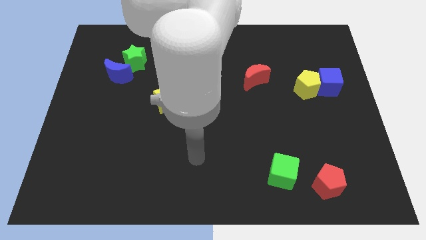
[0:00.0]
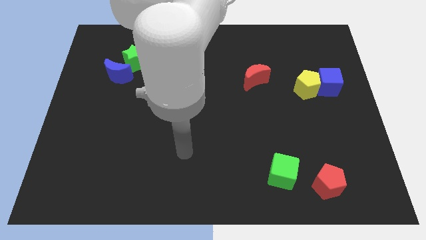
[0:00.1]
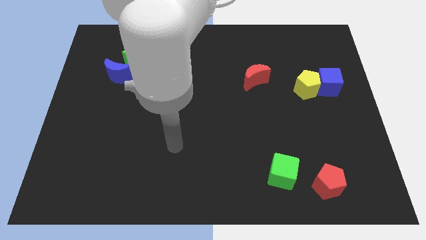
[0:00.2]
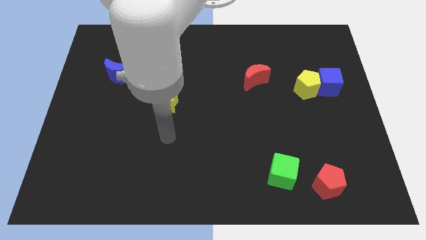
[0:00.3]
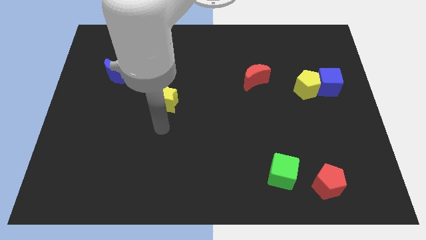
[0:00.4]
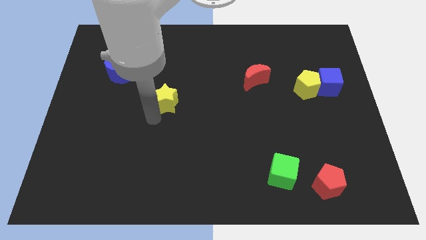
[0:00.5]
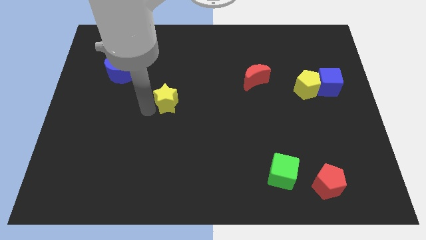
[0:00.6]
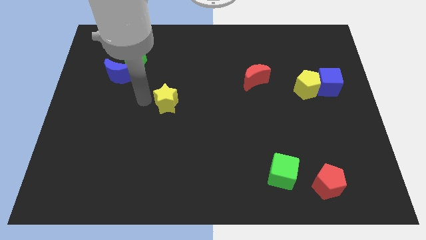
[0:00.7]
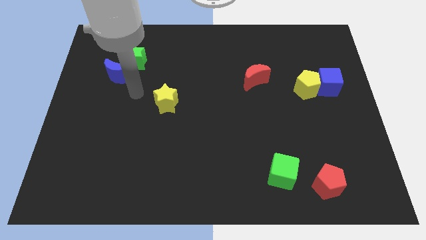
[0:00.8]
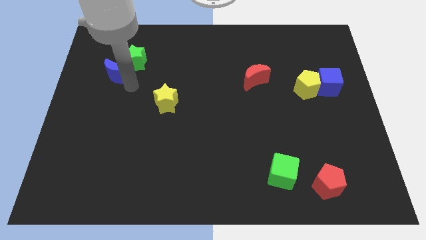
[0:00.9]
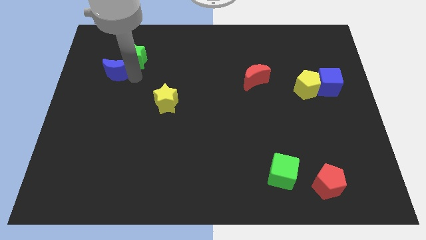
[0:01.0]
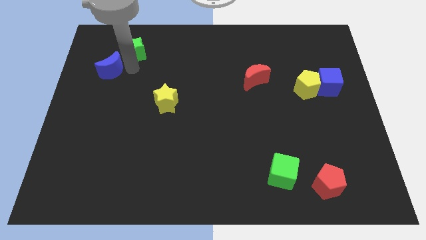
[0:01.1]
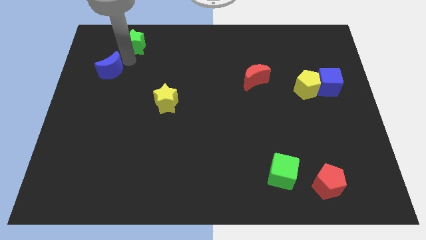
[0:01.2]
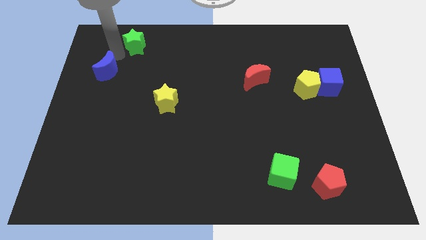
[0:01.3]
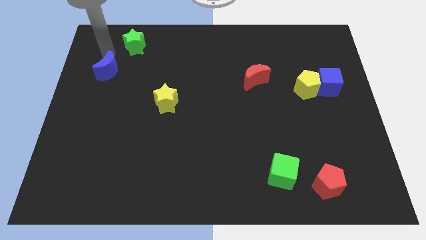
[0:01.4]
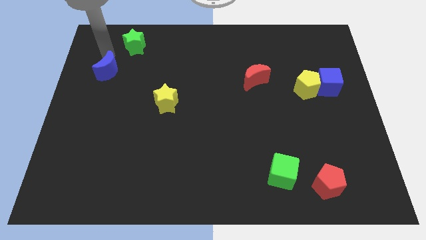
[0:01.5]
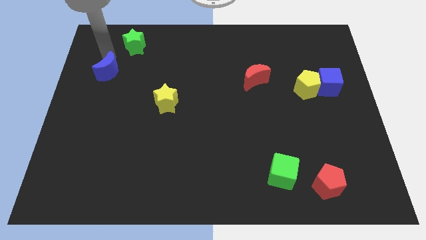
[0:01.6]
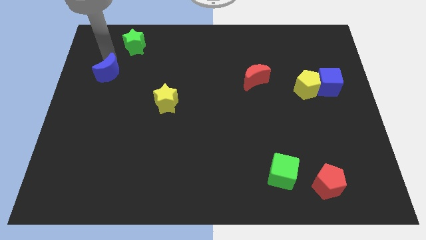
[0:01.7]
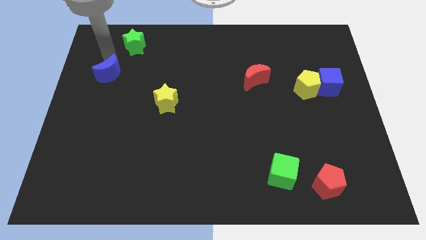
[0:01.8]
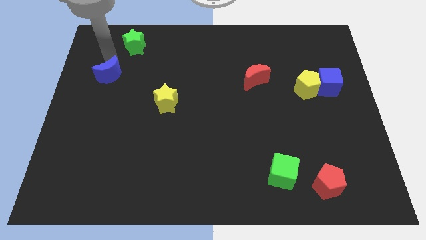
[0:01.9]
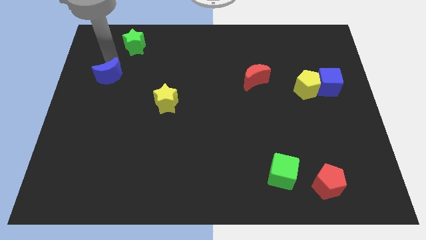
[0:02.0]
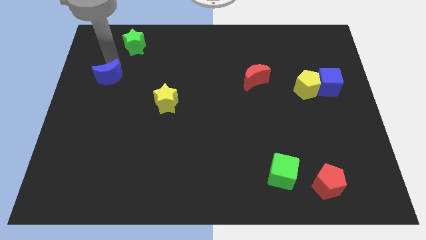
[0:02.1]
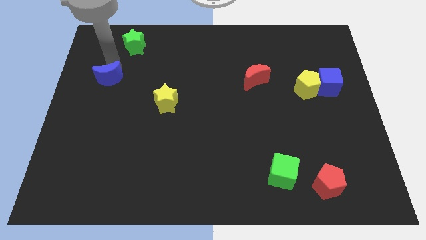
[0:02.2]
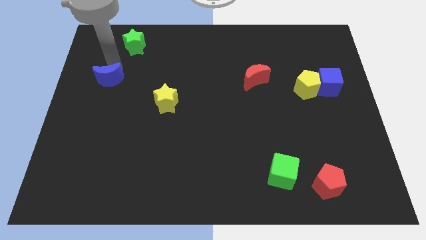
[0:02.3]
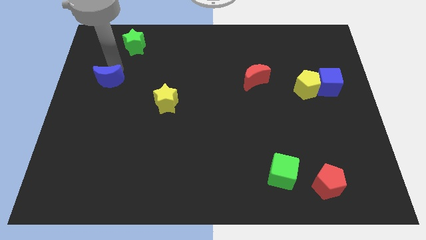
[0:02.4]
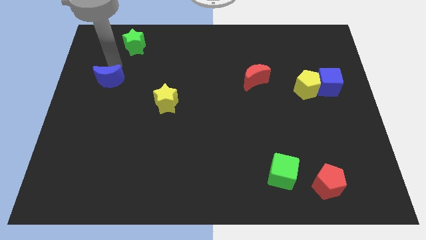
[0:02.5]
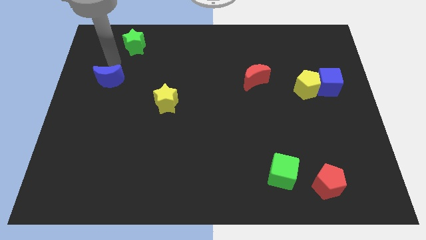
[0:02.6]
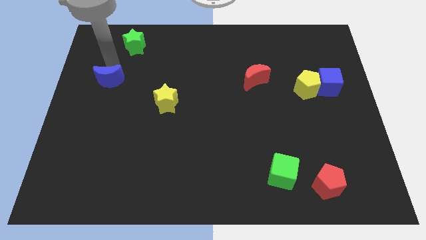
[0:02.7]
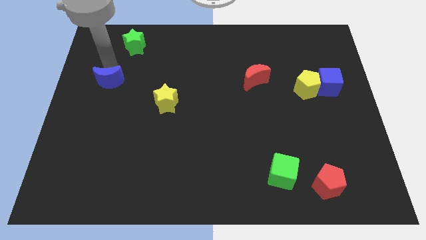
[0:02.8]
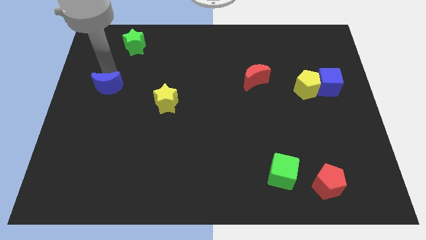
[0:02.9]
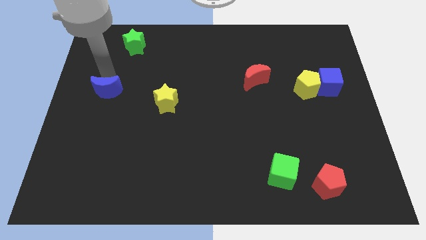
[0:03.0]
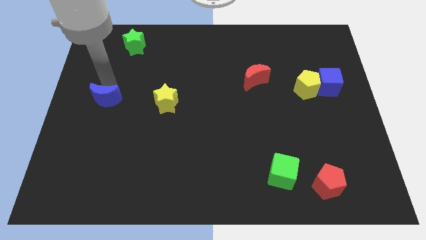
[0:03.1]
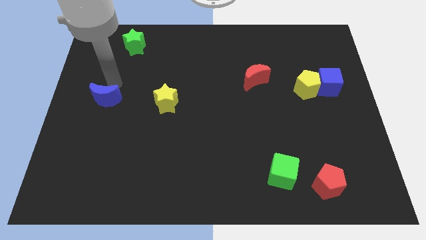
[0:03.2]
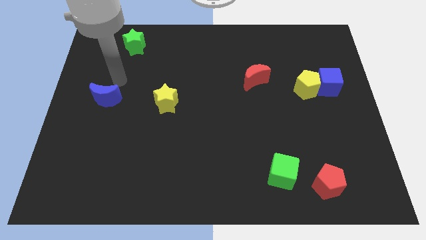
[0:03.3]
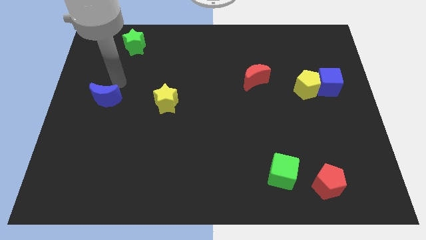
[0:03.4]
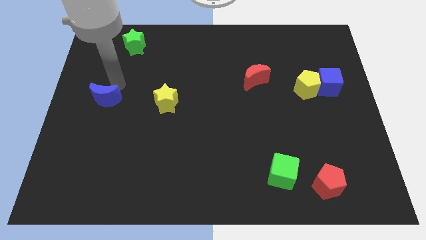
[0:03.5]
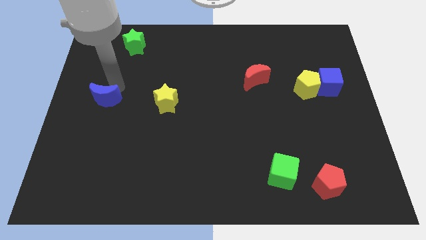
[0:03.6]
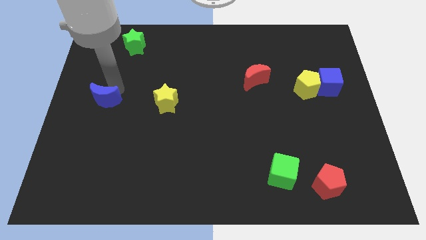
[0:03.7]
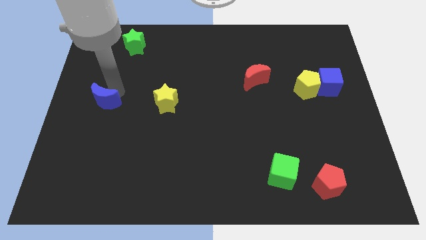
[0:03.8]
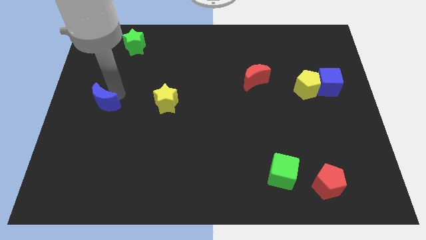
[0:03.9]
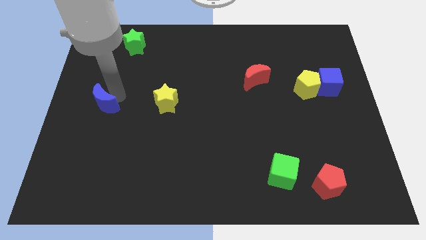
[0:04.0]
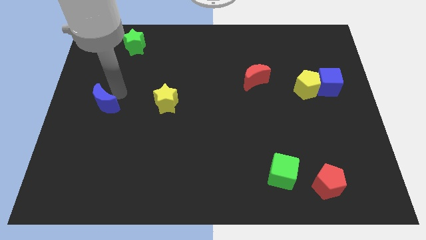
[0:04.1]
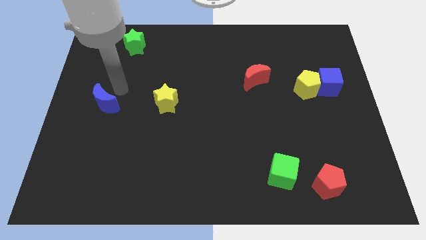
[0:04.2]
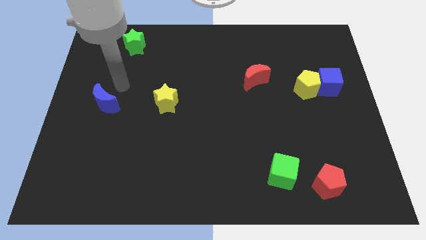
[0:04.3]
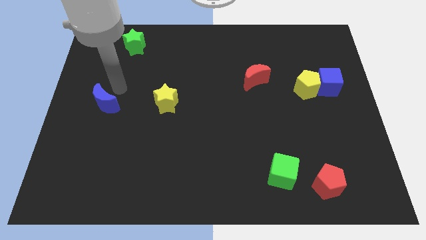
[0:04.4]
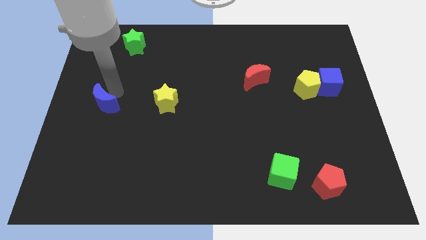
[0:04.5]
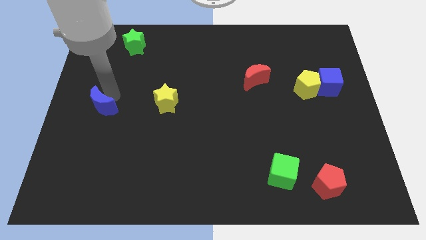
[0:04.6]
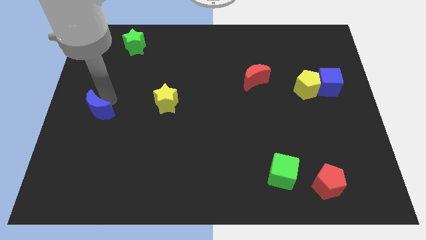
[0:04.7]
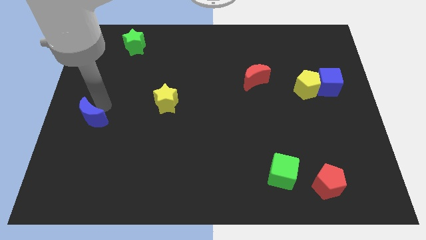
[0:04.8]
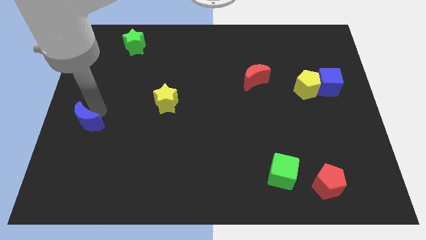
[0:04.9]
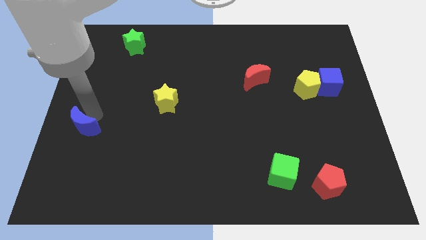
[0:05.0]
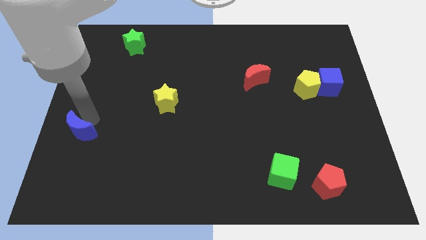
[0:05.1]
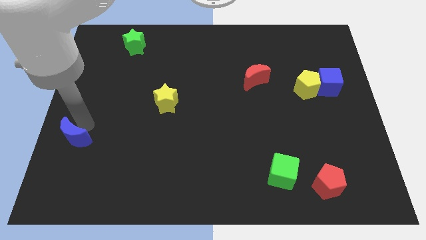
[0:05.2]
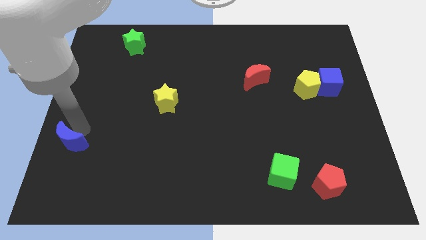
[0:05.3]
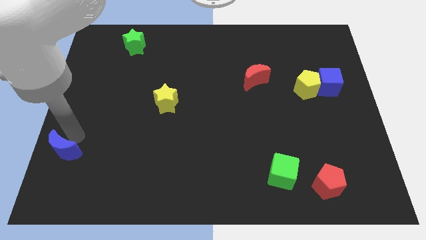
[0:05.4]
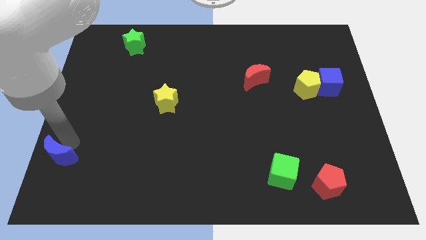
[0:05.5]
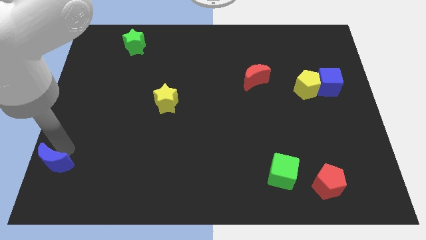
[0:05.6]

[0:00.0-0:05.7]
move the blue moon to the bottom left of the board

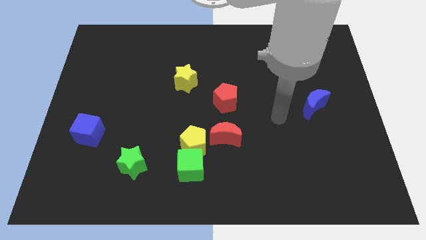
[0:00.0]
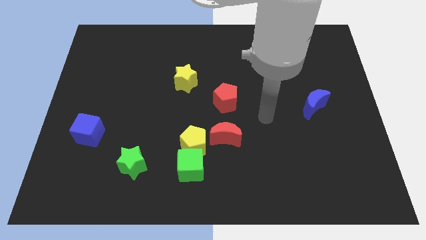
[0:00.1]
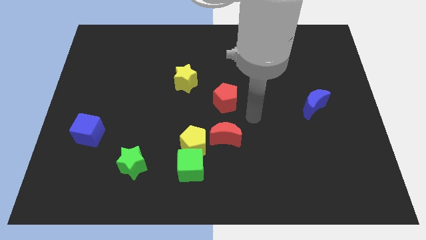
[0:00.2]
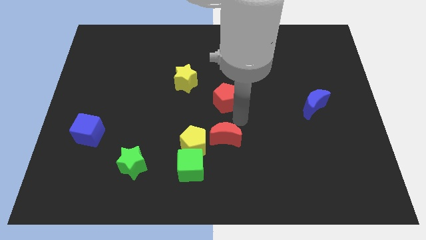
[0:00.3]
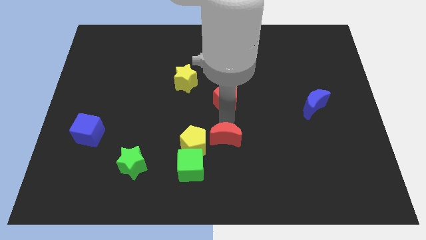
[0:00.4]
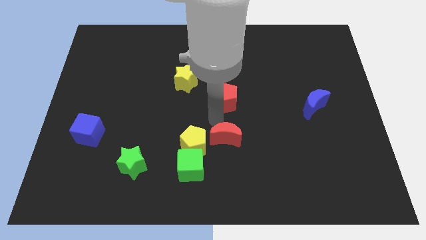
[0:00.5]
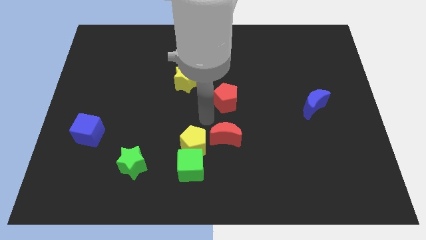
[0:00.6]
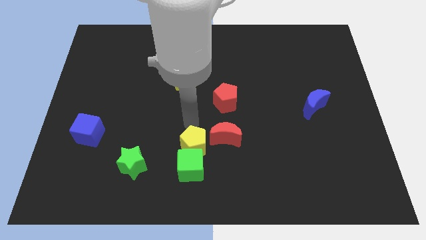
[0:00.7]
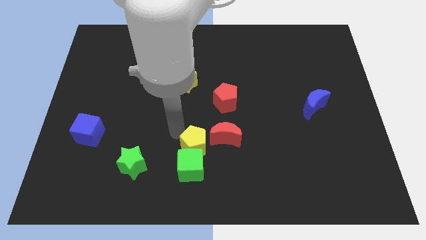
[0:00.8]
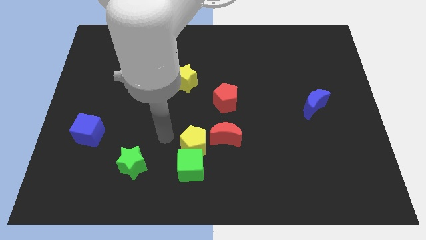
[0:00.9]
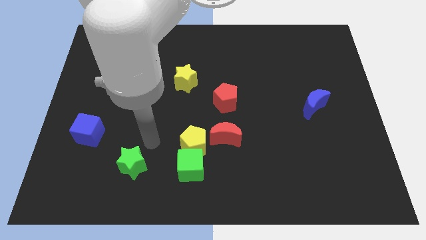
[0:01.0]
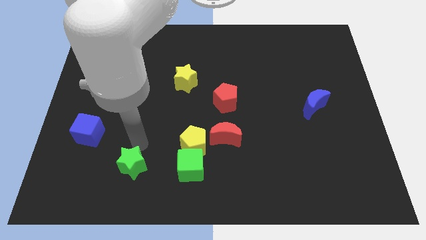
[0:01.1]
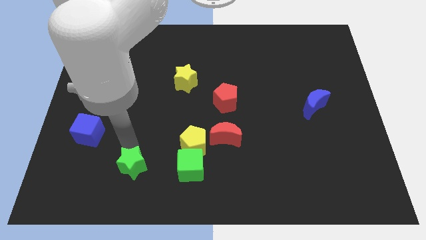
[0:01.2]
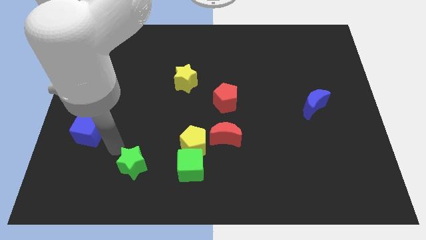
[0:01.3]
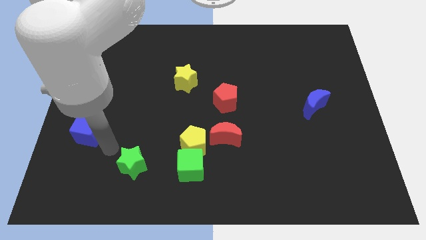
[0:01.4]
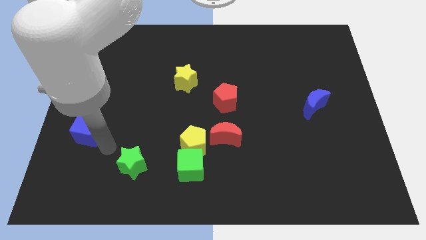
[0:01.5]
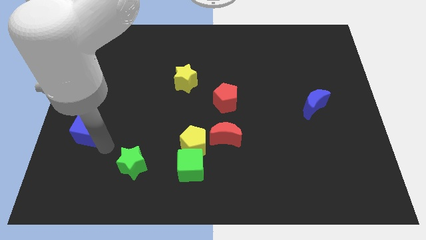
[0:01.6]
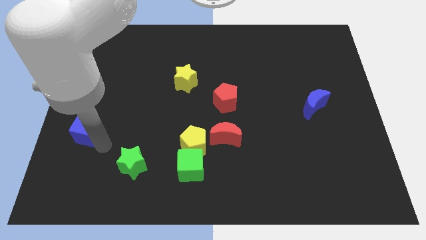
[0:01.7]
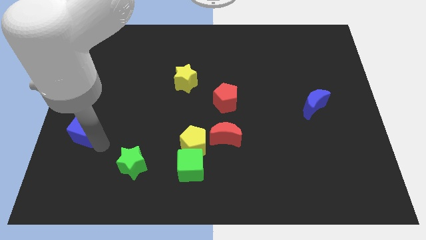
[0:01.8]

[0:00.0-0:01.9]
slide the blue cube to the left side

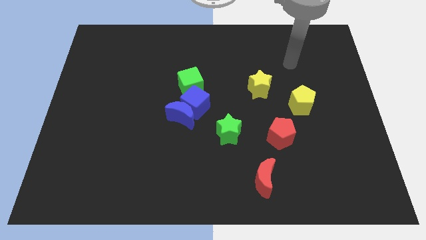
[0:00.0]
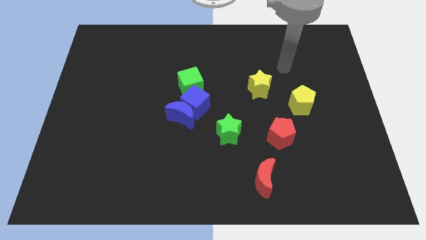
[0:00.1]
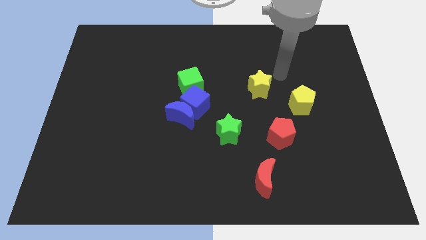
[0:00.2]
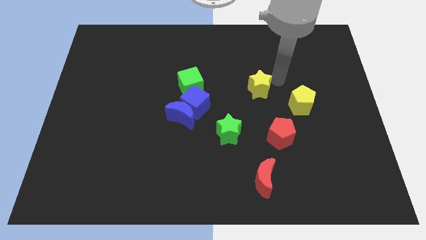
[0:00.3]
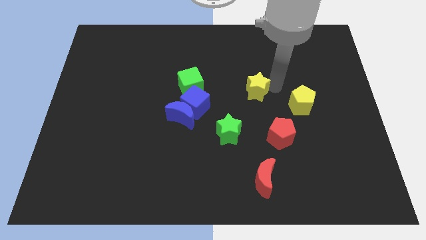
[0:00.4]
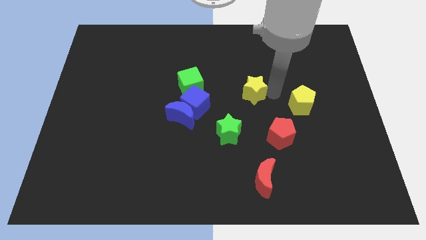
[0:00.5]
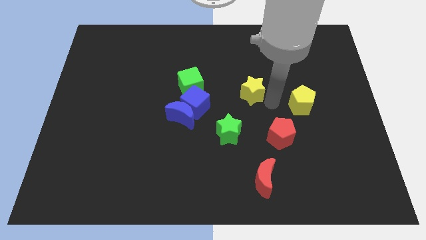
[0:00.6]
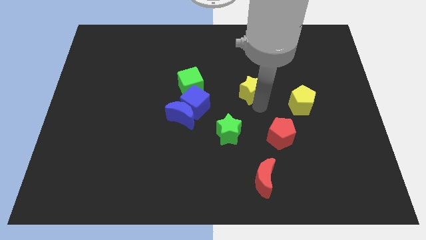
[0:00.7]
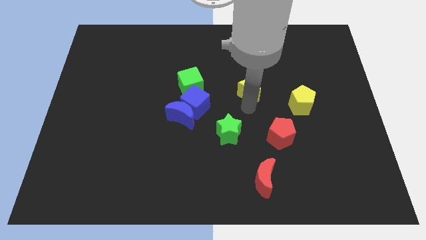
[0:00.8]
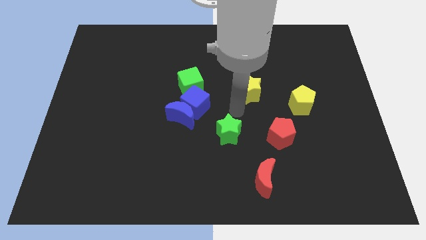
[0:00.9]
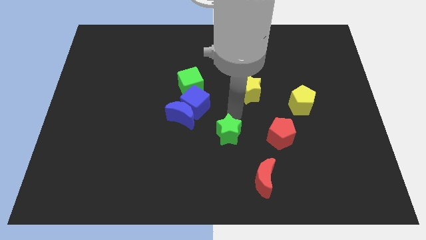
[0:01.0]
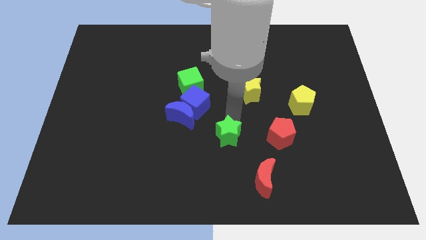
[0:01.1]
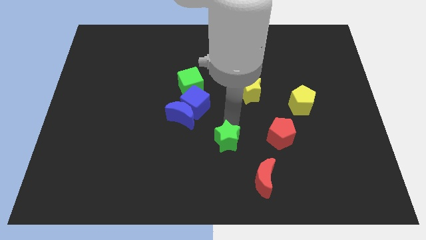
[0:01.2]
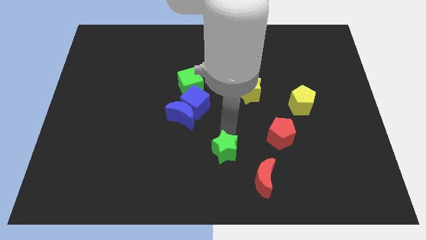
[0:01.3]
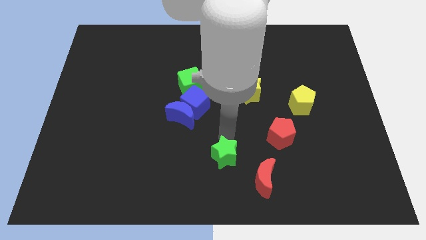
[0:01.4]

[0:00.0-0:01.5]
put the green star to the bottom
